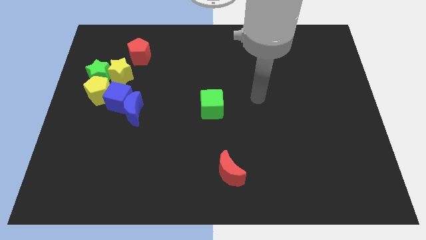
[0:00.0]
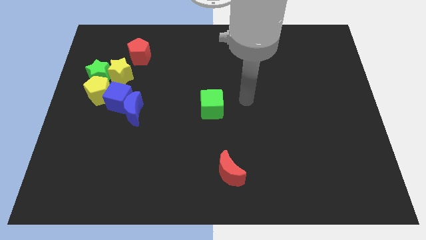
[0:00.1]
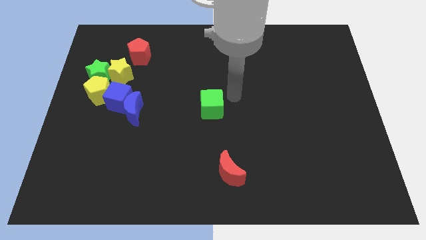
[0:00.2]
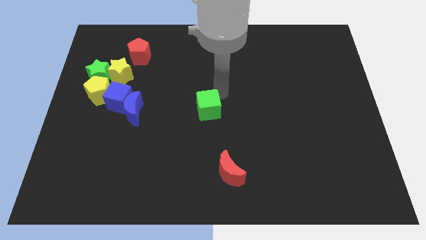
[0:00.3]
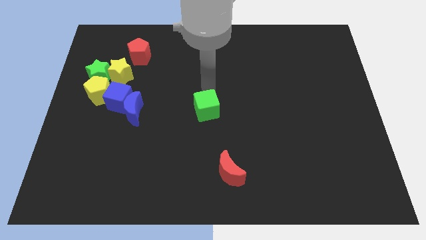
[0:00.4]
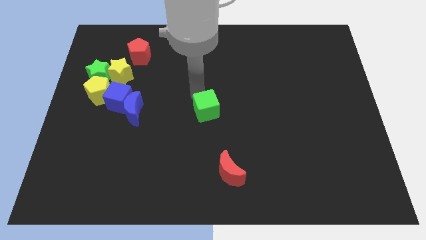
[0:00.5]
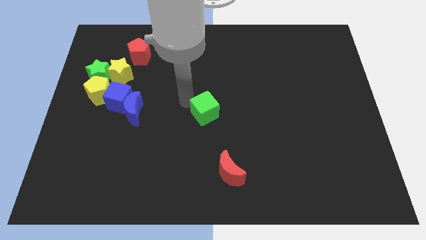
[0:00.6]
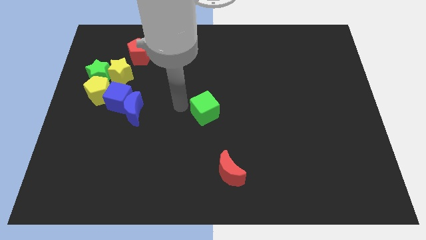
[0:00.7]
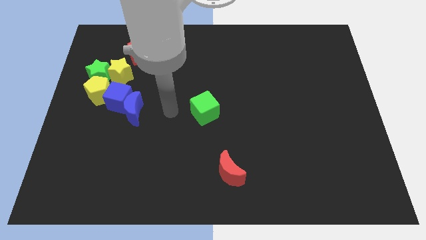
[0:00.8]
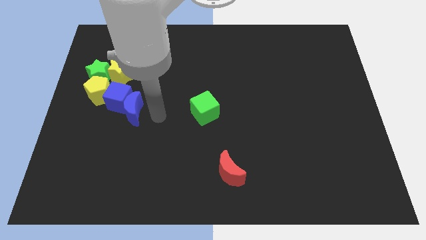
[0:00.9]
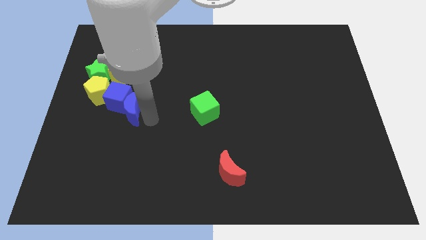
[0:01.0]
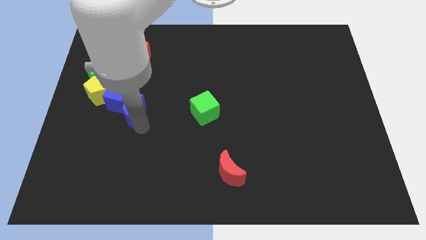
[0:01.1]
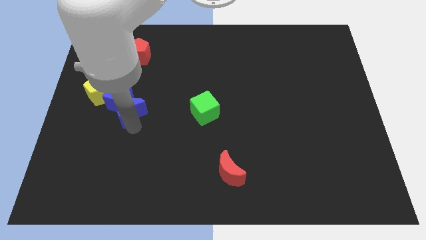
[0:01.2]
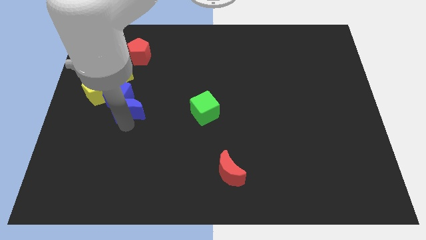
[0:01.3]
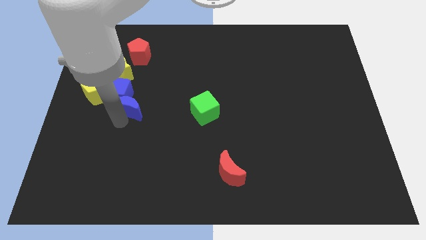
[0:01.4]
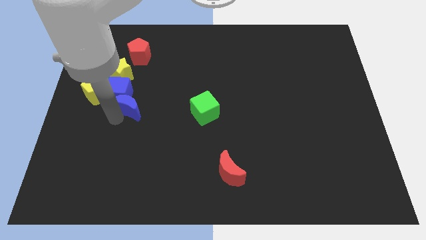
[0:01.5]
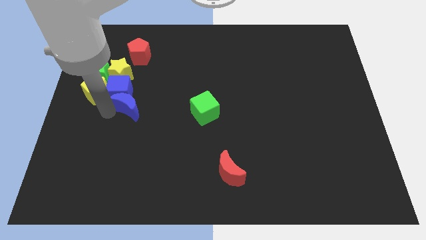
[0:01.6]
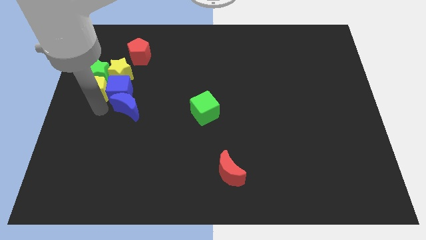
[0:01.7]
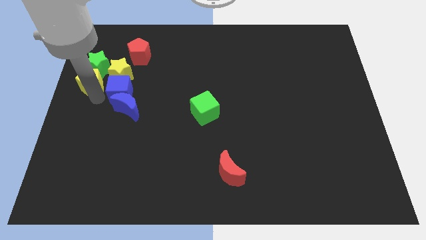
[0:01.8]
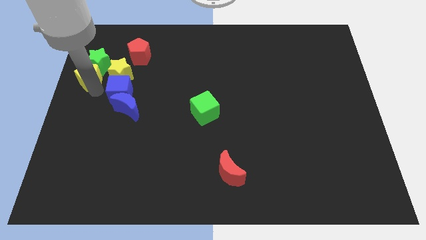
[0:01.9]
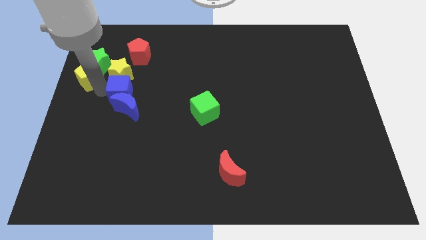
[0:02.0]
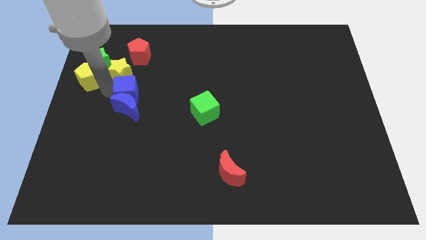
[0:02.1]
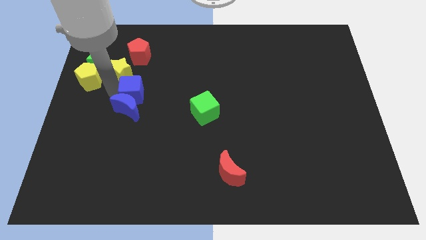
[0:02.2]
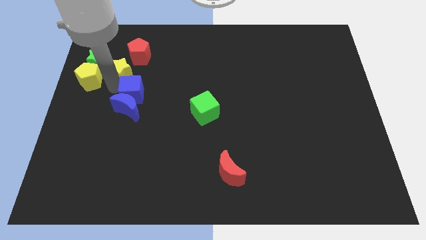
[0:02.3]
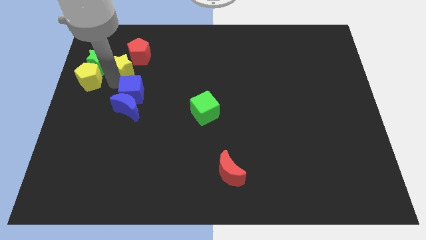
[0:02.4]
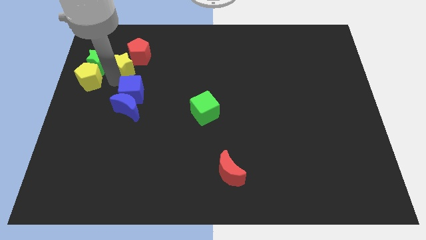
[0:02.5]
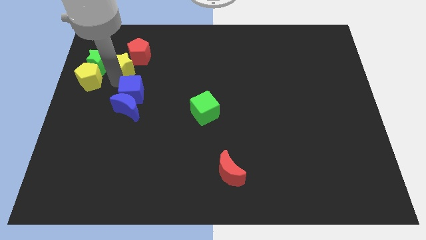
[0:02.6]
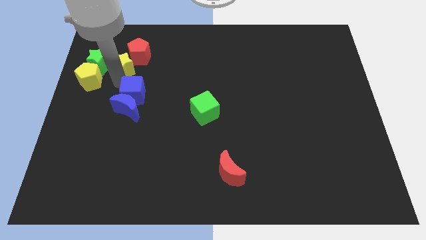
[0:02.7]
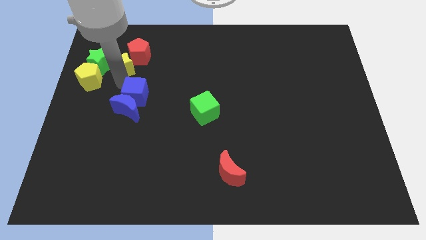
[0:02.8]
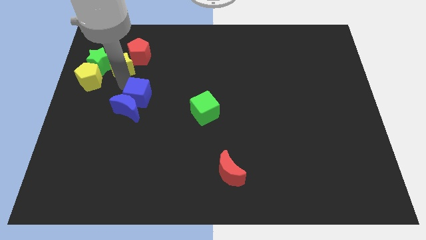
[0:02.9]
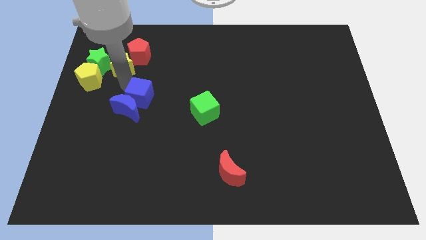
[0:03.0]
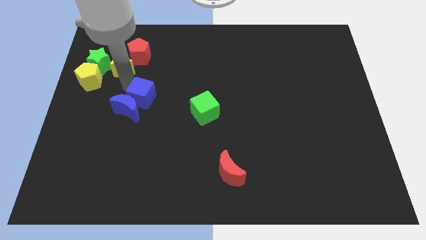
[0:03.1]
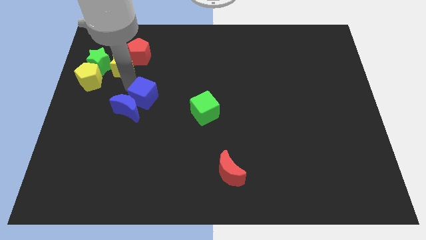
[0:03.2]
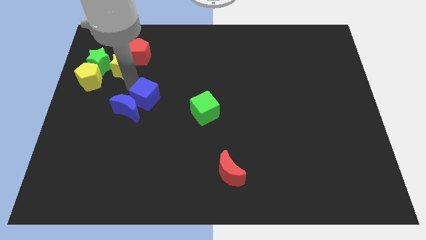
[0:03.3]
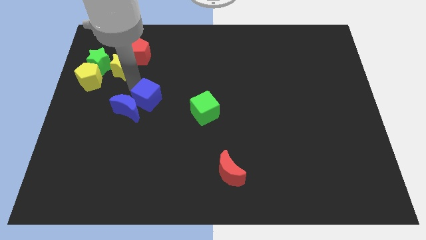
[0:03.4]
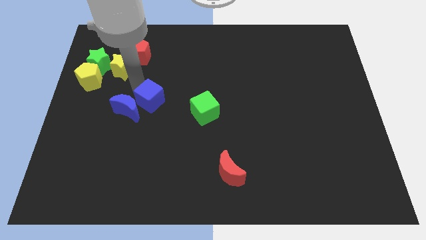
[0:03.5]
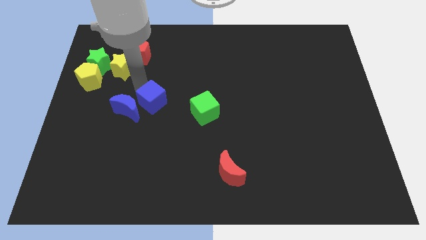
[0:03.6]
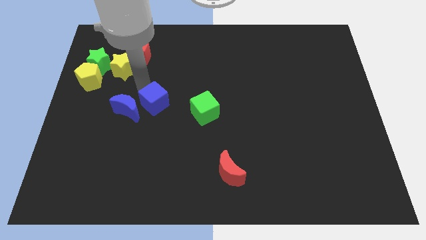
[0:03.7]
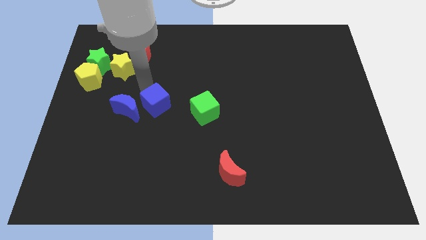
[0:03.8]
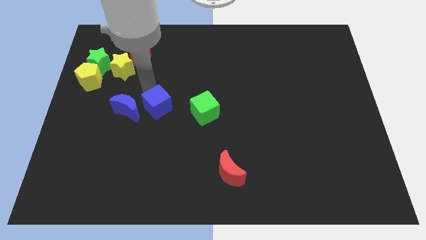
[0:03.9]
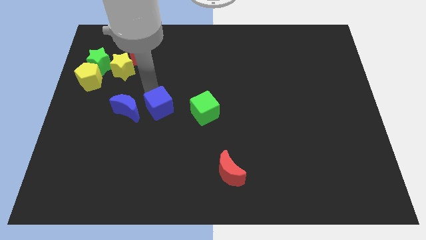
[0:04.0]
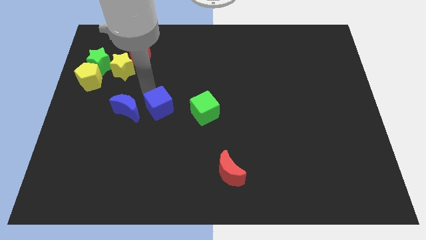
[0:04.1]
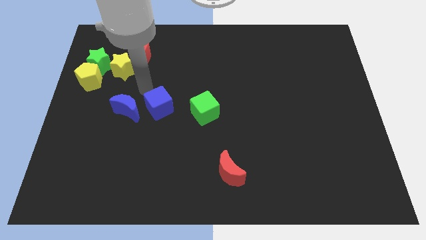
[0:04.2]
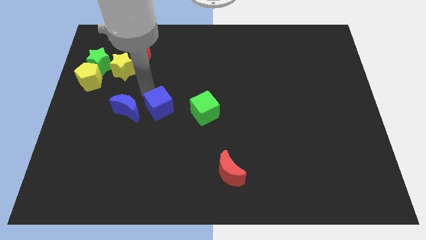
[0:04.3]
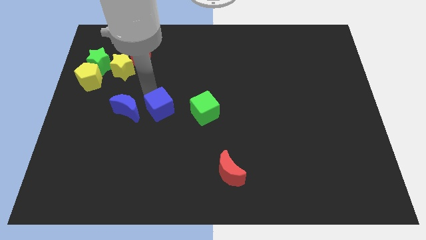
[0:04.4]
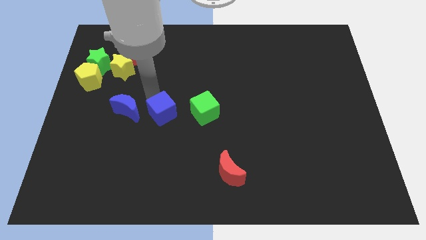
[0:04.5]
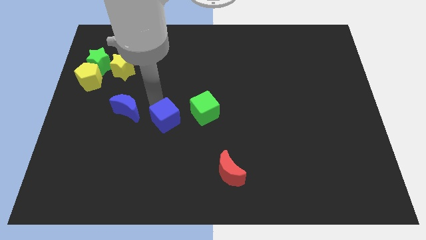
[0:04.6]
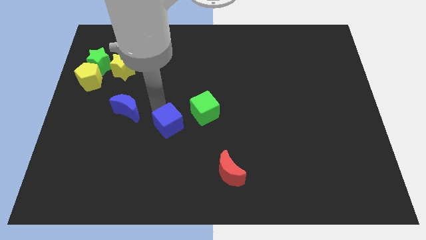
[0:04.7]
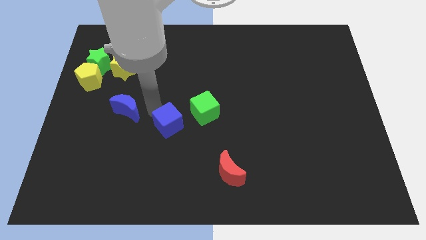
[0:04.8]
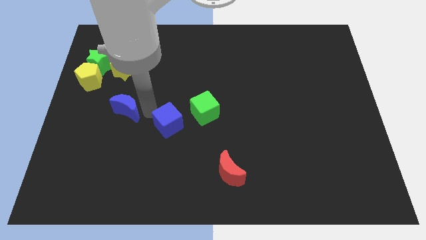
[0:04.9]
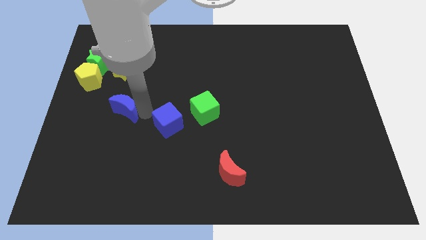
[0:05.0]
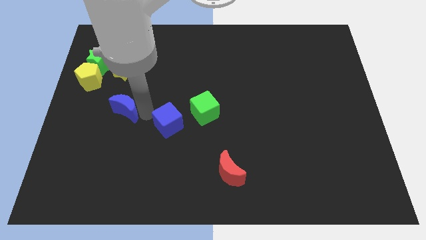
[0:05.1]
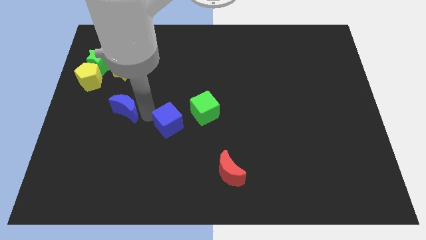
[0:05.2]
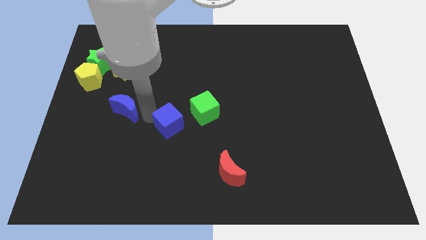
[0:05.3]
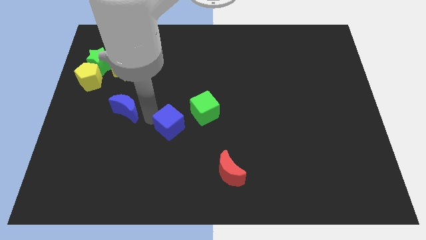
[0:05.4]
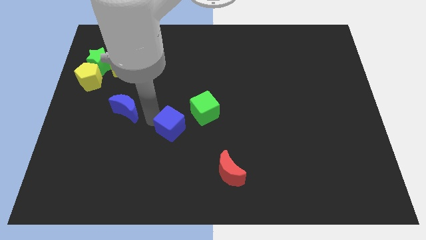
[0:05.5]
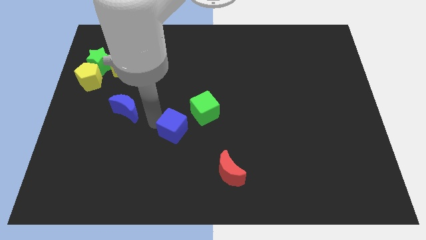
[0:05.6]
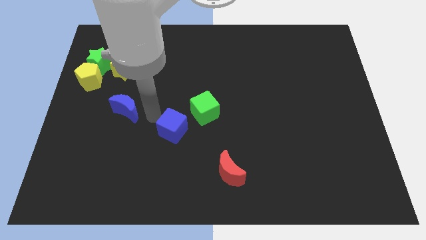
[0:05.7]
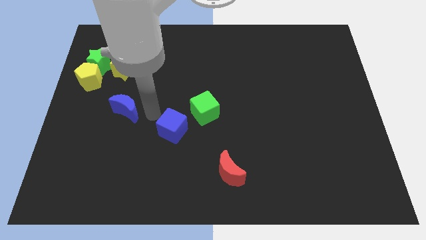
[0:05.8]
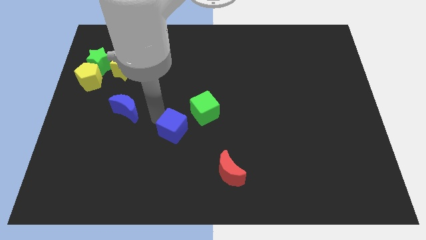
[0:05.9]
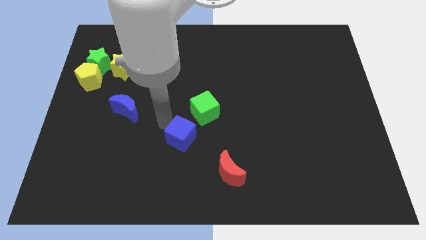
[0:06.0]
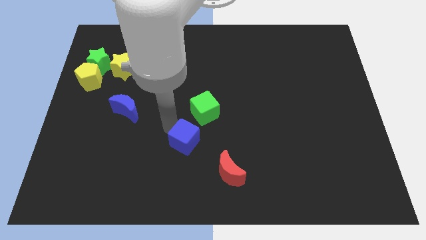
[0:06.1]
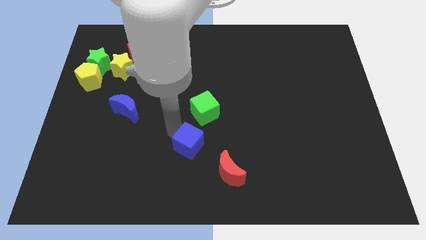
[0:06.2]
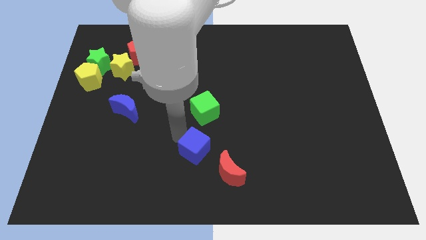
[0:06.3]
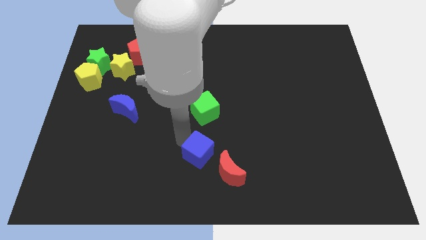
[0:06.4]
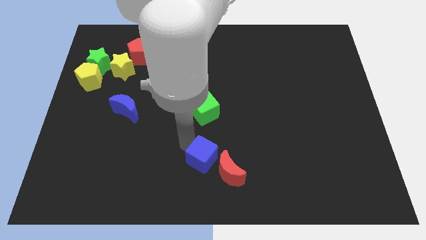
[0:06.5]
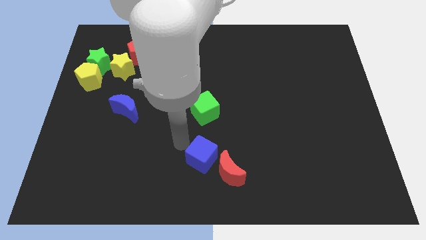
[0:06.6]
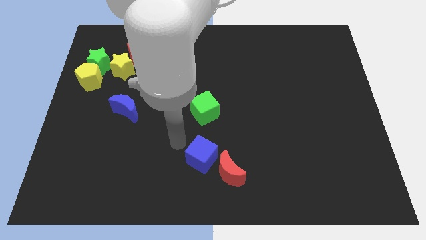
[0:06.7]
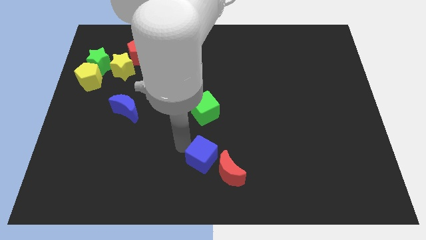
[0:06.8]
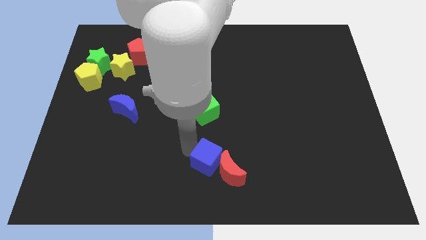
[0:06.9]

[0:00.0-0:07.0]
put the blue cube to the red moon

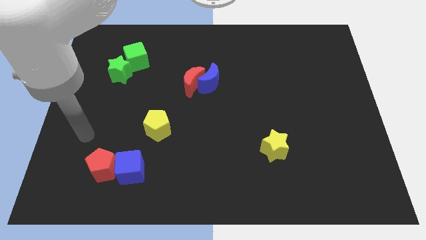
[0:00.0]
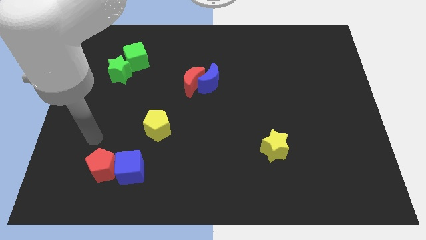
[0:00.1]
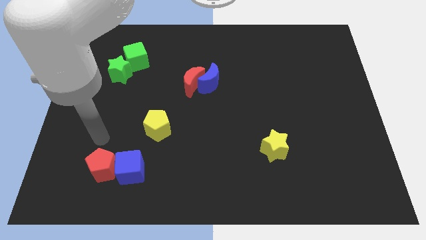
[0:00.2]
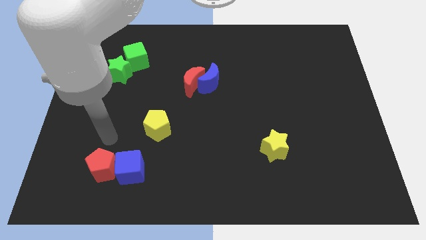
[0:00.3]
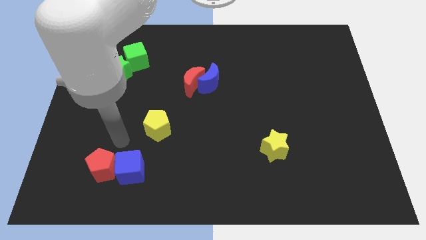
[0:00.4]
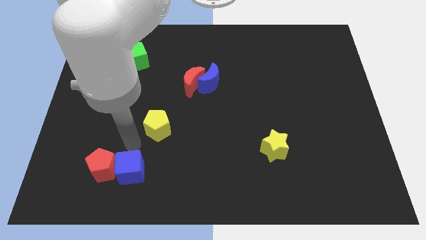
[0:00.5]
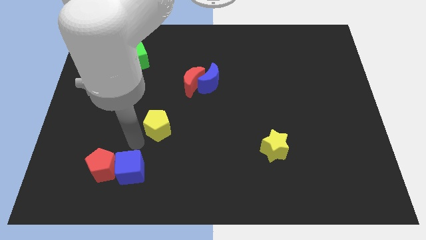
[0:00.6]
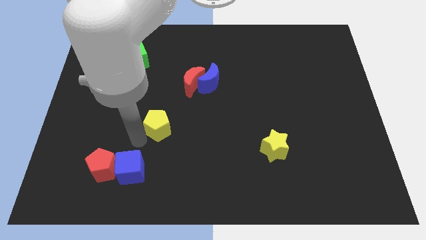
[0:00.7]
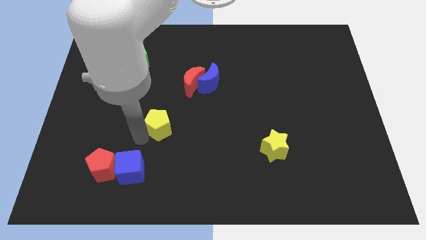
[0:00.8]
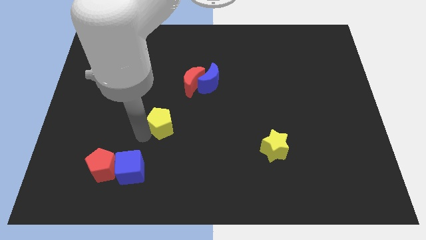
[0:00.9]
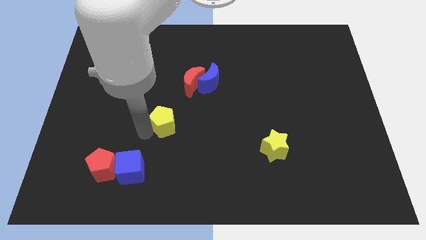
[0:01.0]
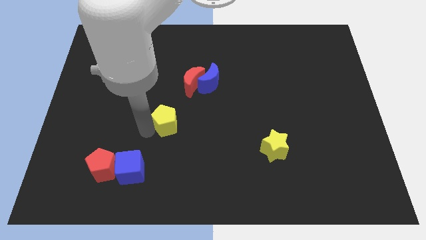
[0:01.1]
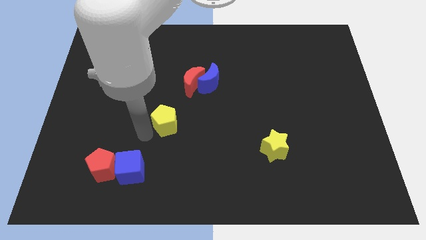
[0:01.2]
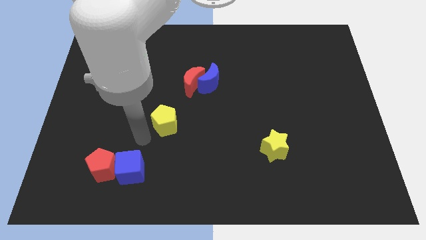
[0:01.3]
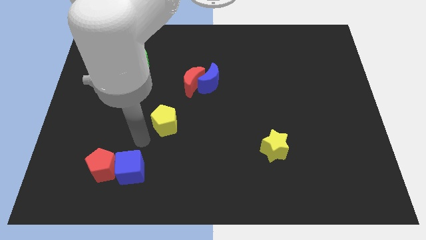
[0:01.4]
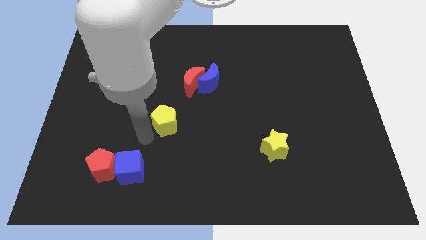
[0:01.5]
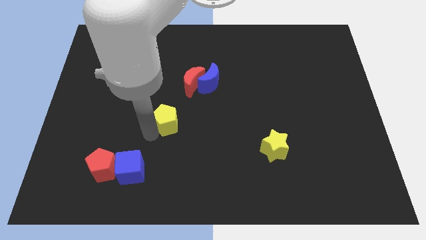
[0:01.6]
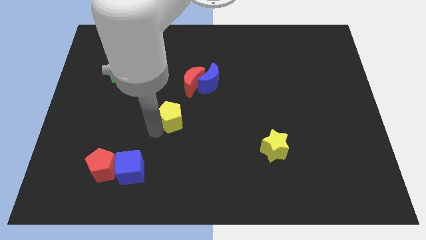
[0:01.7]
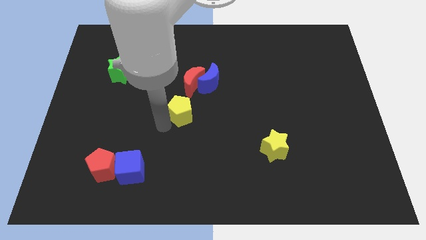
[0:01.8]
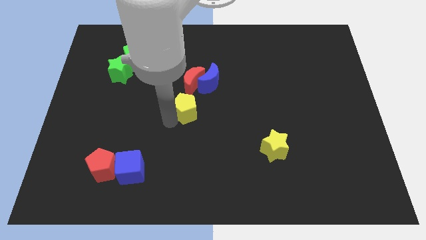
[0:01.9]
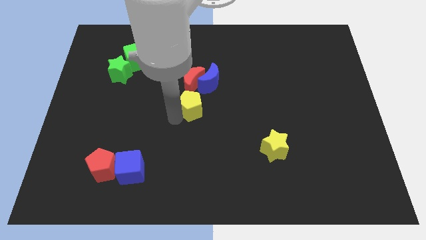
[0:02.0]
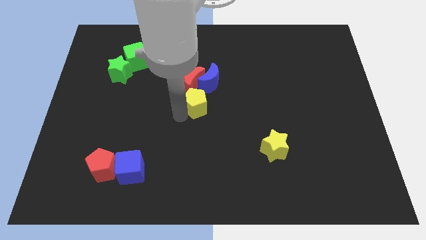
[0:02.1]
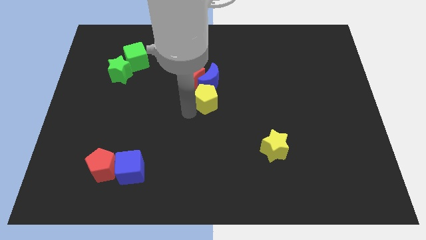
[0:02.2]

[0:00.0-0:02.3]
put the yellow pentagon close to the blue moon
